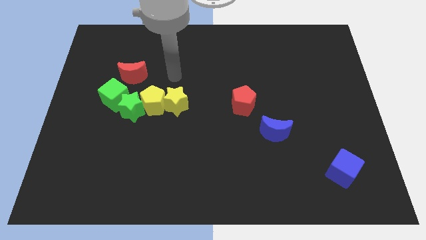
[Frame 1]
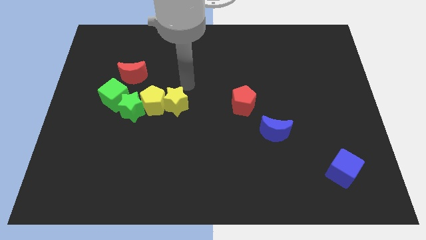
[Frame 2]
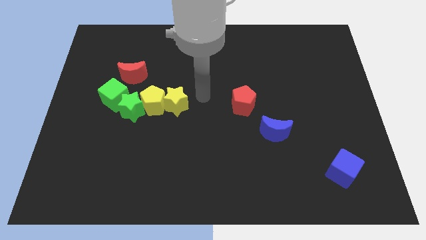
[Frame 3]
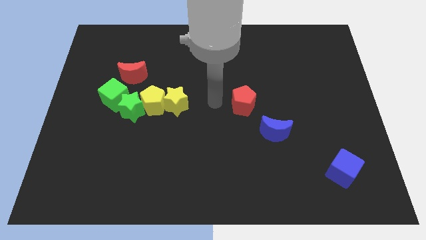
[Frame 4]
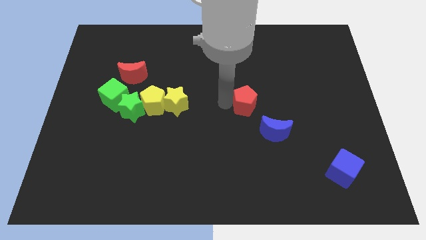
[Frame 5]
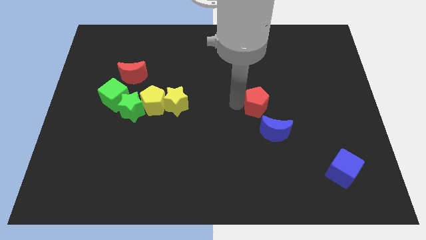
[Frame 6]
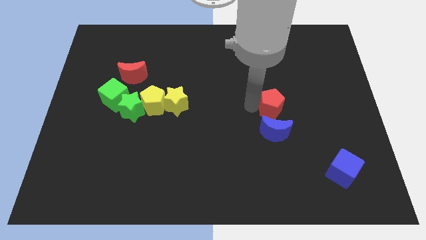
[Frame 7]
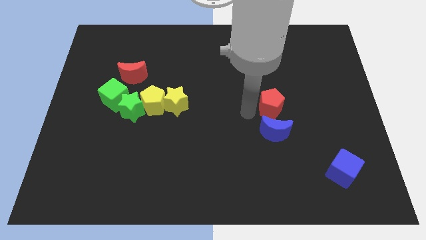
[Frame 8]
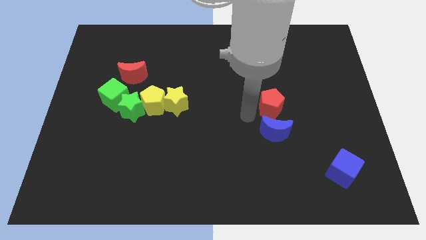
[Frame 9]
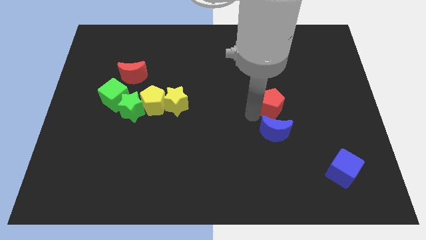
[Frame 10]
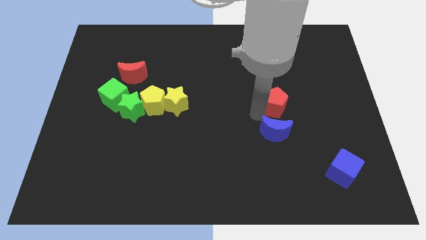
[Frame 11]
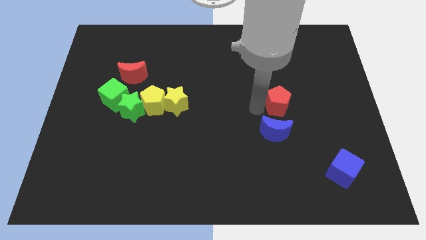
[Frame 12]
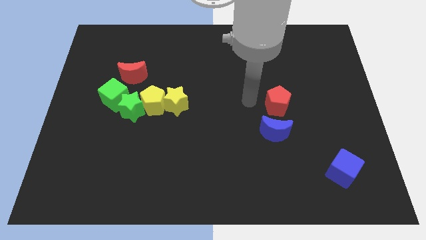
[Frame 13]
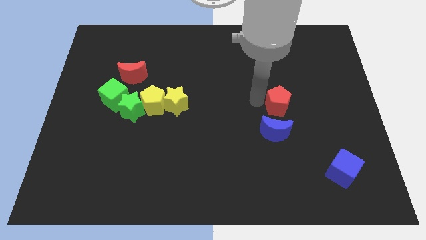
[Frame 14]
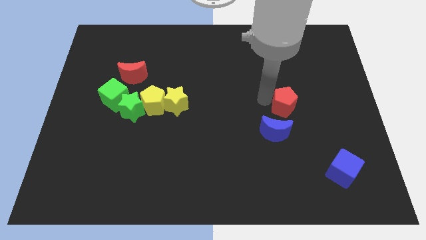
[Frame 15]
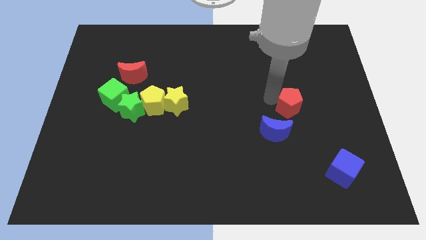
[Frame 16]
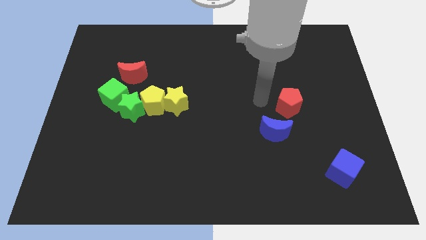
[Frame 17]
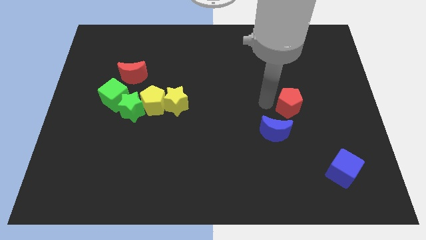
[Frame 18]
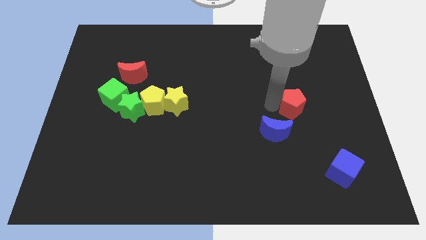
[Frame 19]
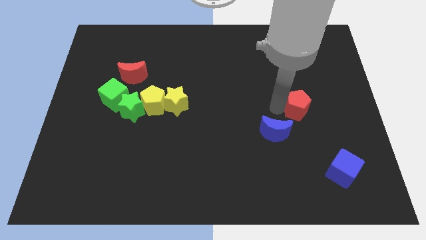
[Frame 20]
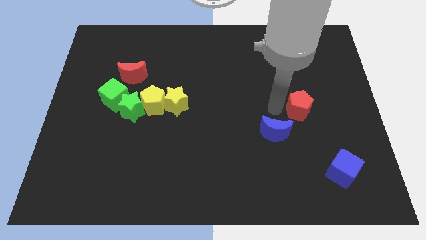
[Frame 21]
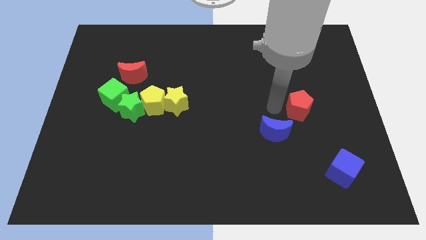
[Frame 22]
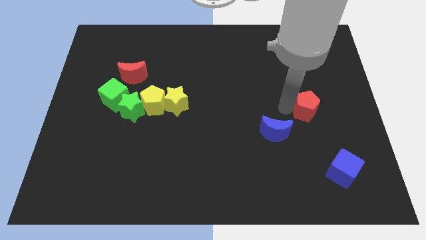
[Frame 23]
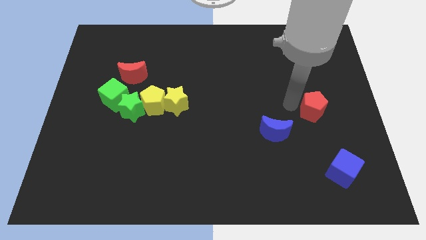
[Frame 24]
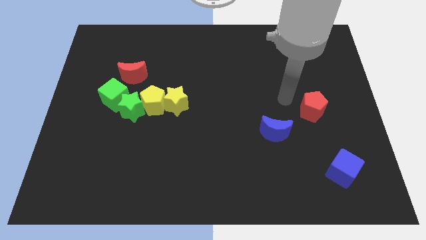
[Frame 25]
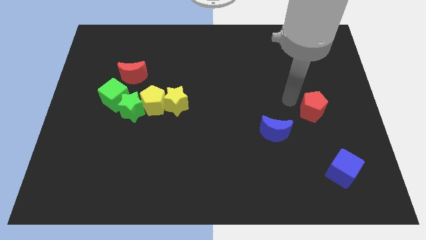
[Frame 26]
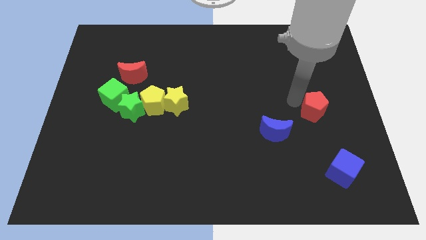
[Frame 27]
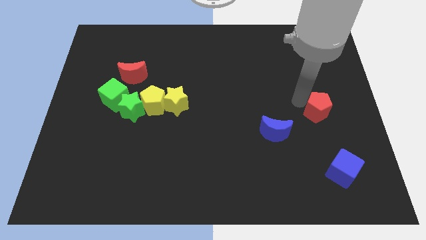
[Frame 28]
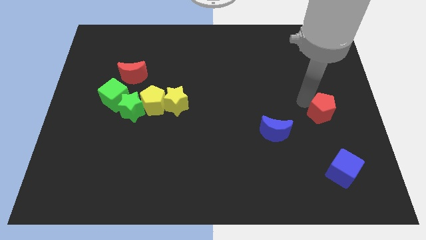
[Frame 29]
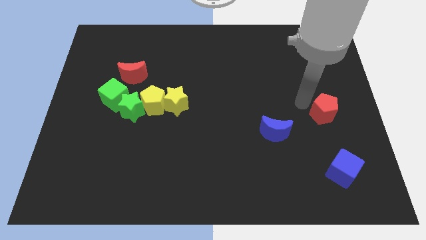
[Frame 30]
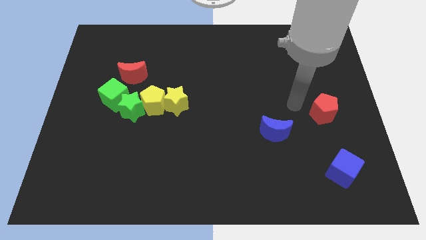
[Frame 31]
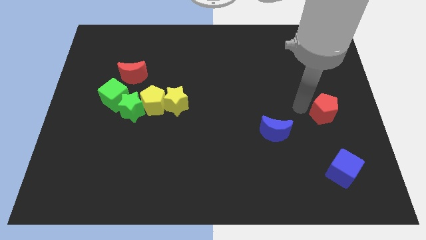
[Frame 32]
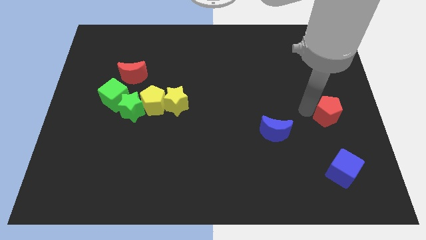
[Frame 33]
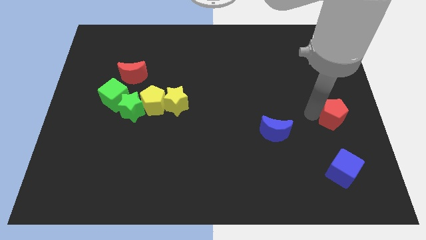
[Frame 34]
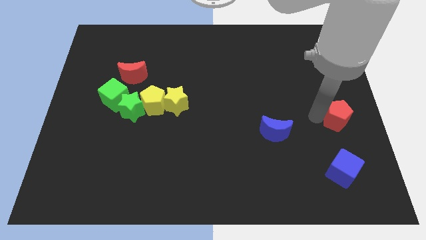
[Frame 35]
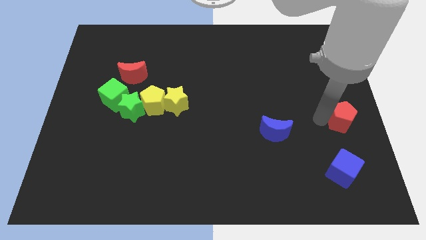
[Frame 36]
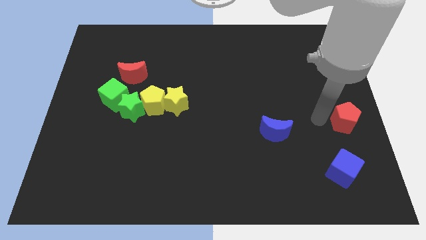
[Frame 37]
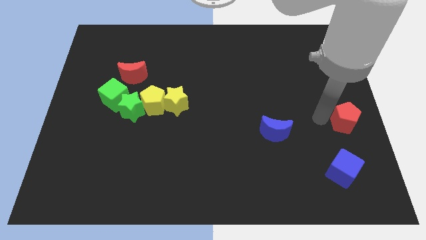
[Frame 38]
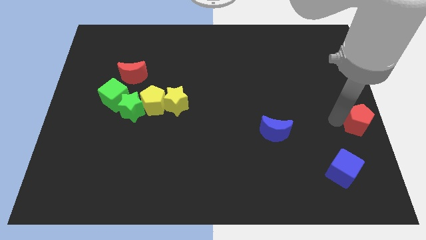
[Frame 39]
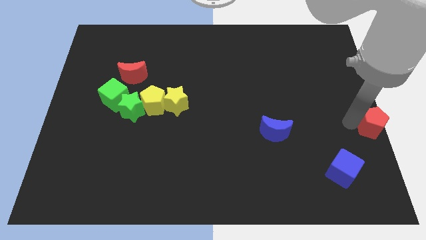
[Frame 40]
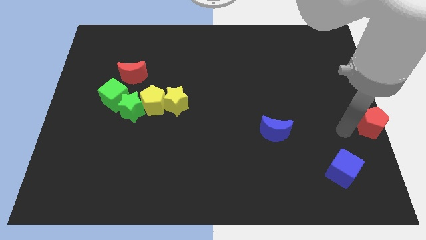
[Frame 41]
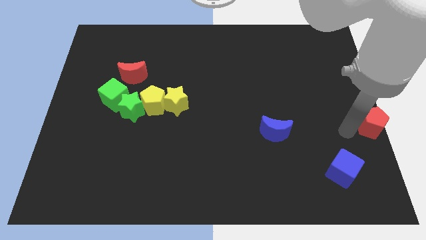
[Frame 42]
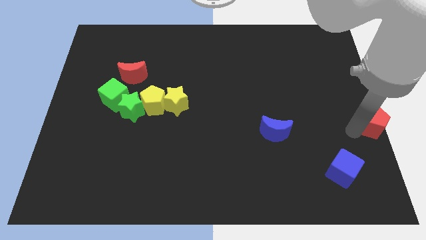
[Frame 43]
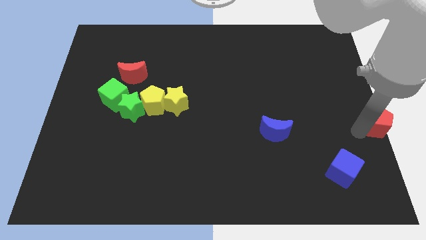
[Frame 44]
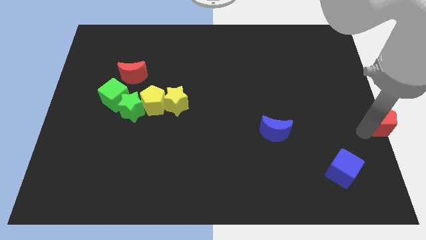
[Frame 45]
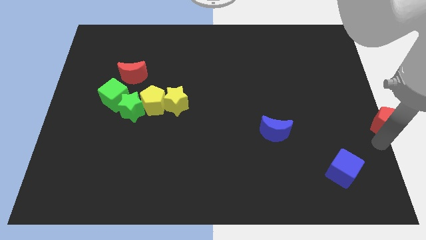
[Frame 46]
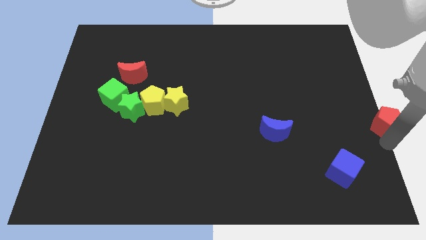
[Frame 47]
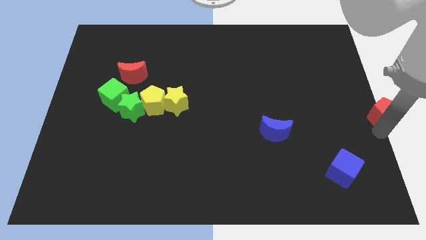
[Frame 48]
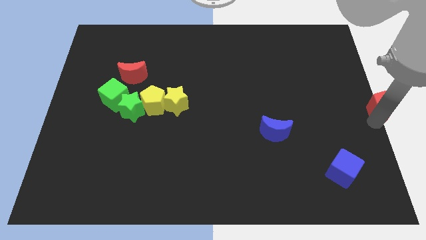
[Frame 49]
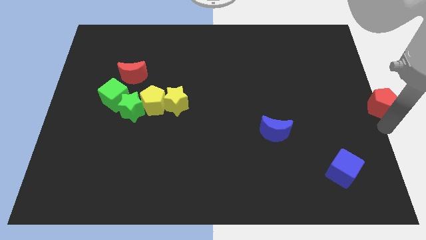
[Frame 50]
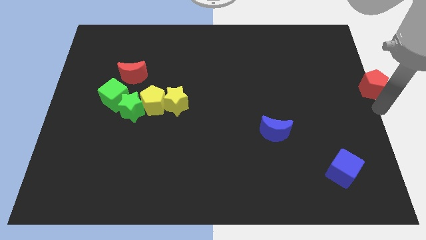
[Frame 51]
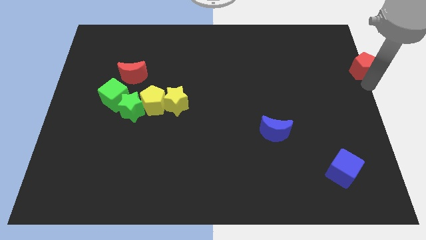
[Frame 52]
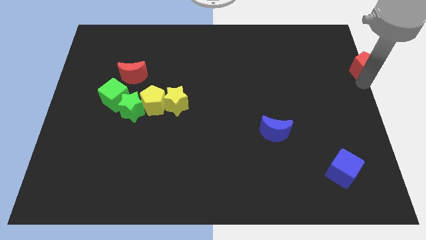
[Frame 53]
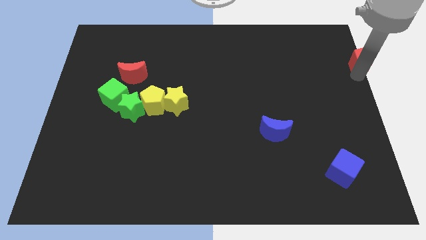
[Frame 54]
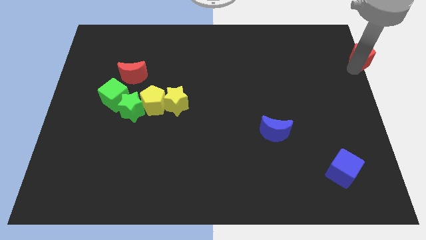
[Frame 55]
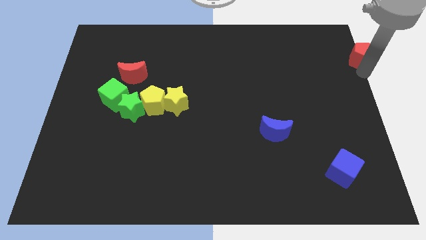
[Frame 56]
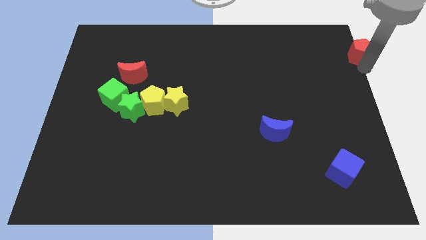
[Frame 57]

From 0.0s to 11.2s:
push the red pentagon to the upper right corner

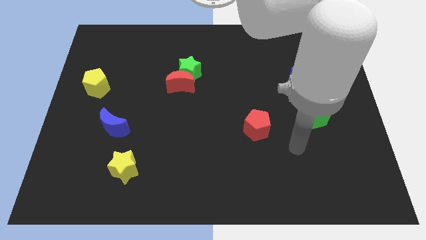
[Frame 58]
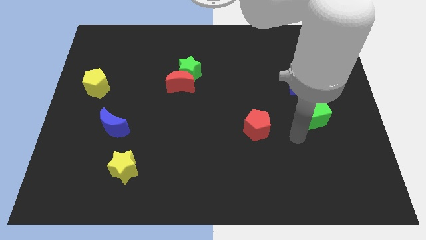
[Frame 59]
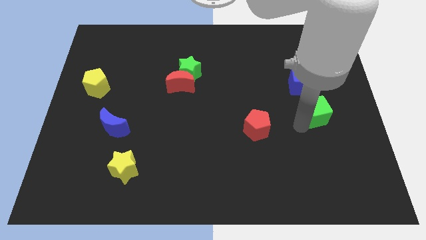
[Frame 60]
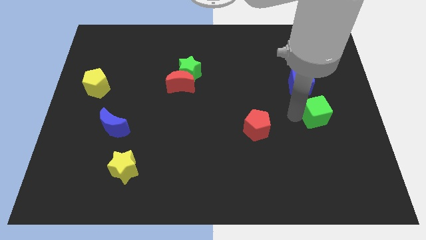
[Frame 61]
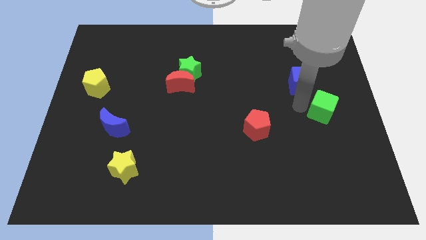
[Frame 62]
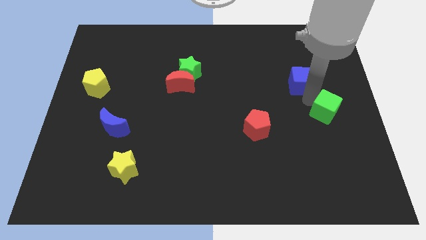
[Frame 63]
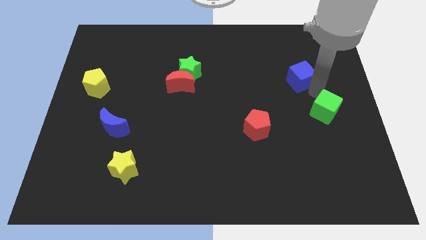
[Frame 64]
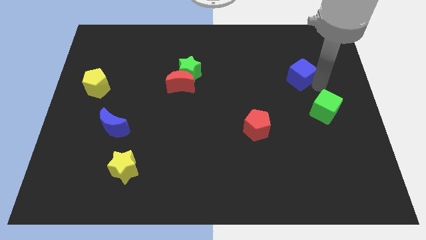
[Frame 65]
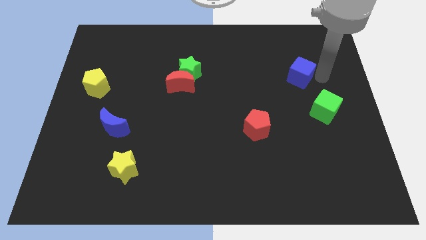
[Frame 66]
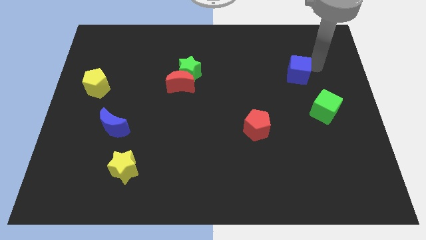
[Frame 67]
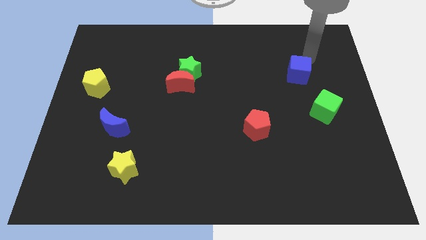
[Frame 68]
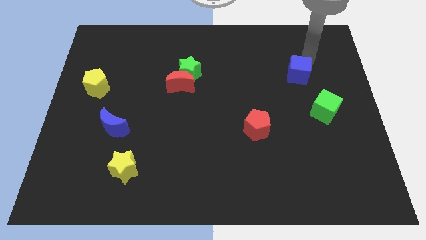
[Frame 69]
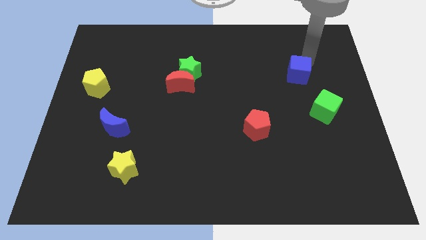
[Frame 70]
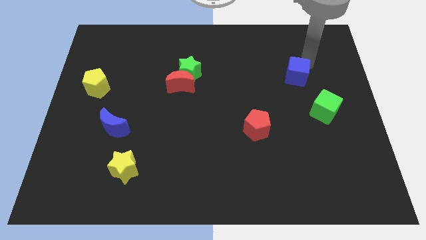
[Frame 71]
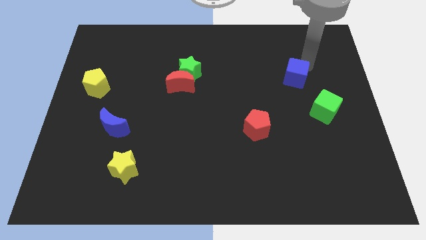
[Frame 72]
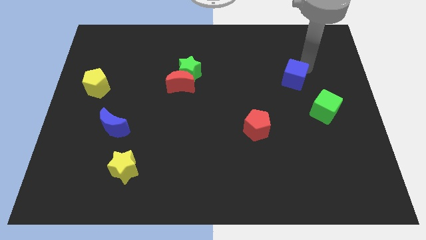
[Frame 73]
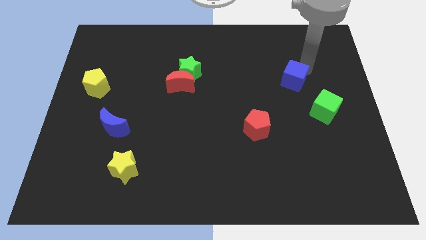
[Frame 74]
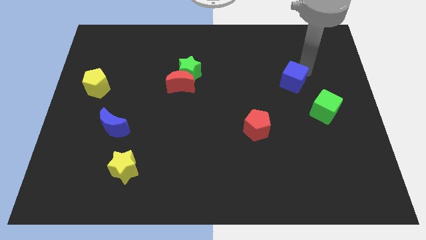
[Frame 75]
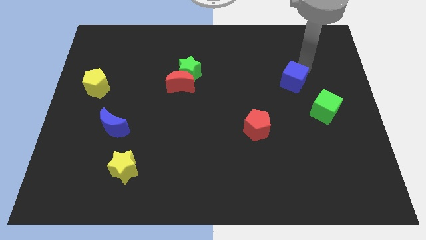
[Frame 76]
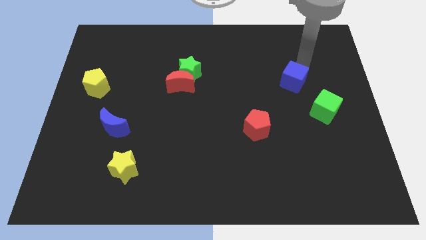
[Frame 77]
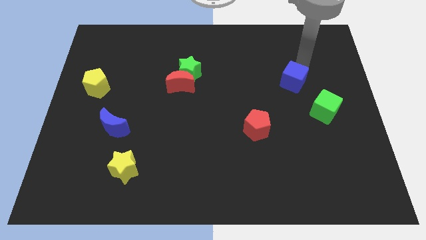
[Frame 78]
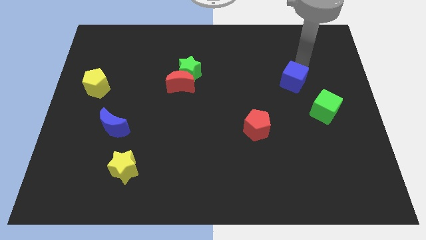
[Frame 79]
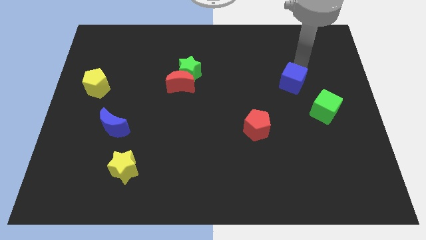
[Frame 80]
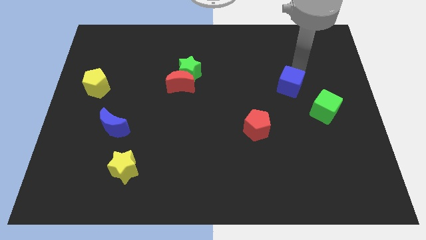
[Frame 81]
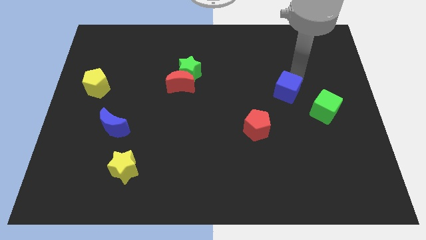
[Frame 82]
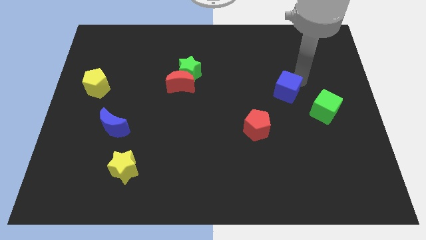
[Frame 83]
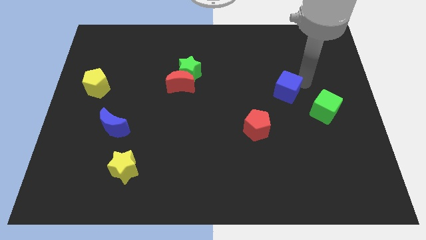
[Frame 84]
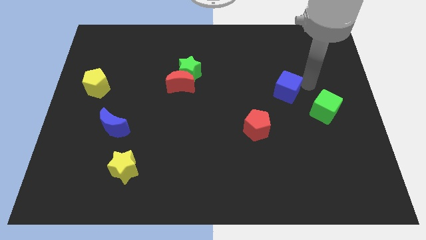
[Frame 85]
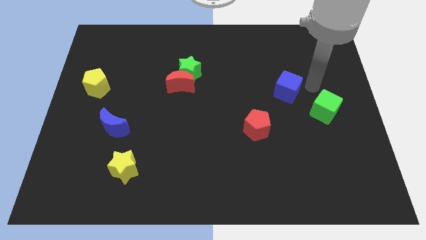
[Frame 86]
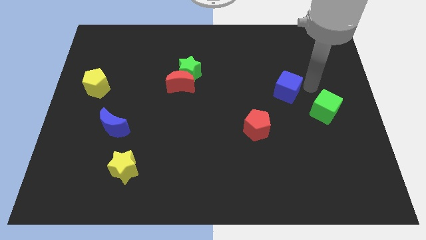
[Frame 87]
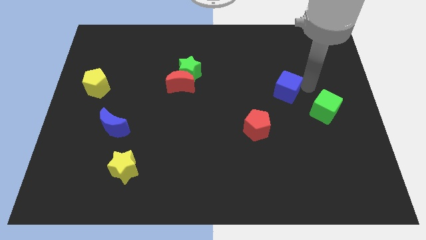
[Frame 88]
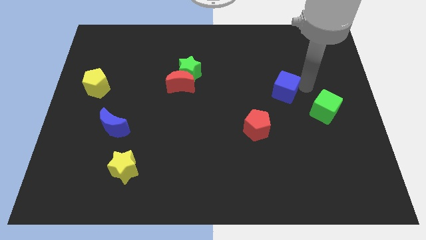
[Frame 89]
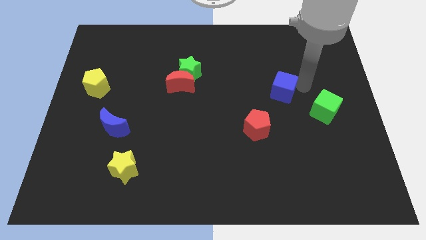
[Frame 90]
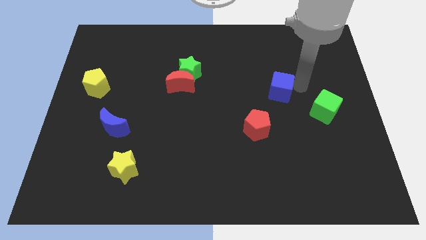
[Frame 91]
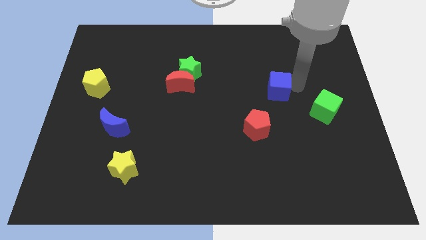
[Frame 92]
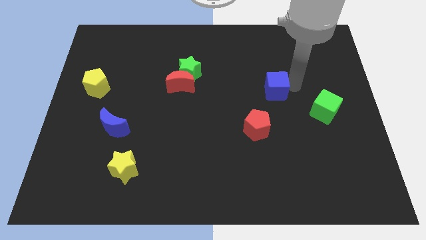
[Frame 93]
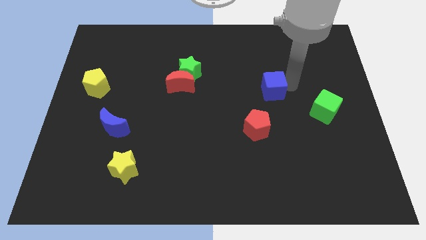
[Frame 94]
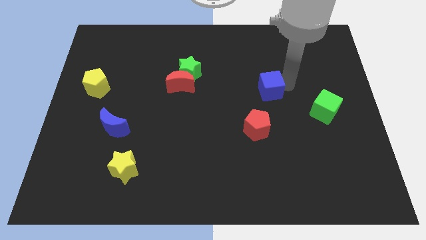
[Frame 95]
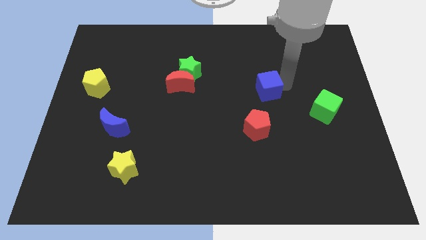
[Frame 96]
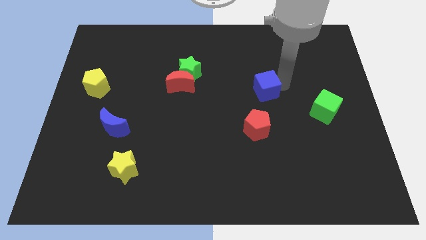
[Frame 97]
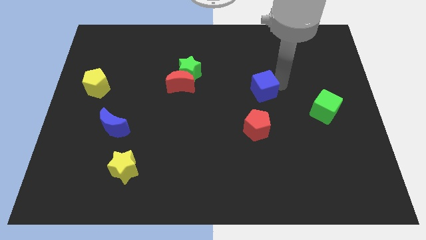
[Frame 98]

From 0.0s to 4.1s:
move the blue cube to the center of the board
